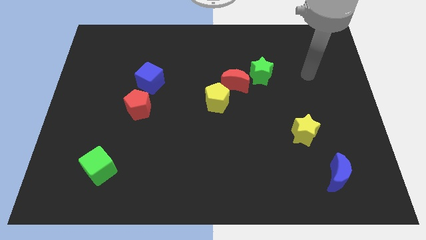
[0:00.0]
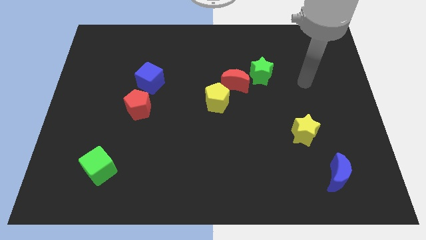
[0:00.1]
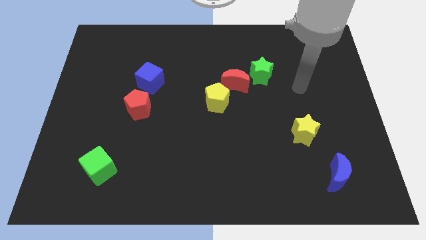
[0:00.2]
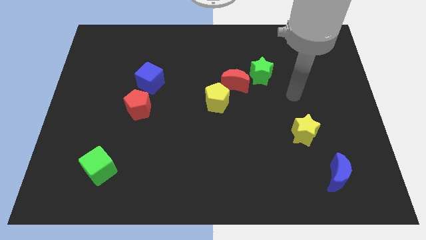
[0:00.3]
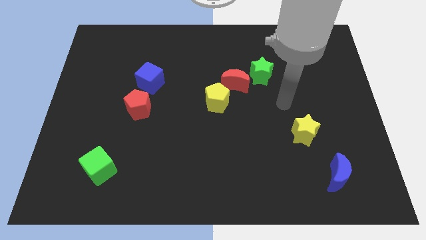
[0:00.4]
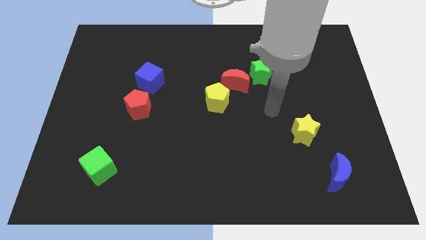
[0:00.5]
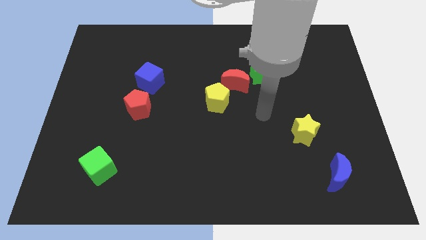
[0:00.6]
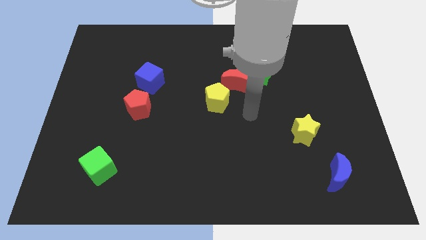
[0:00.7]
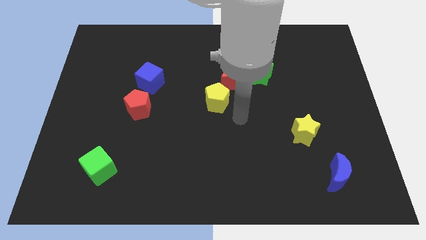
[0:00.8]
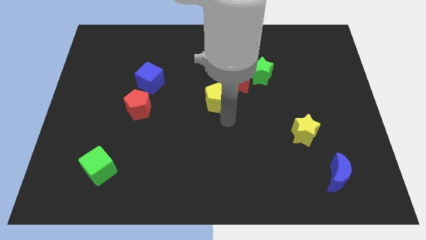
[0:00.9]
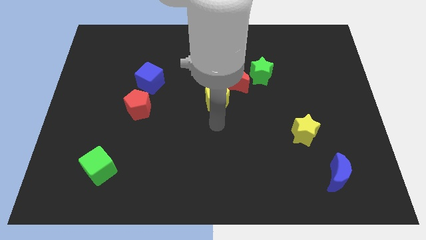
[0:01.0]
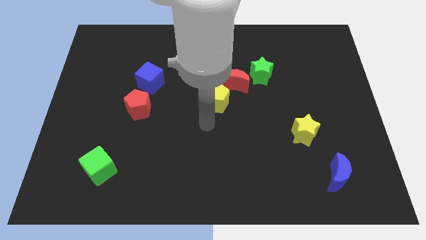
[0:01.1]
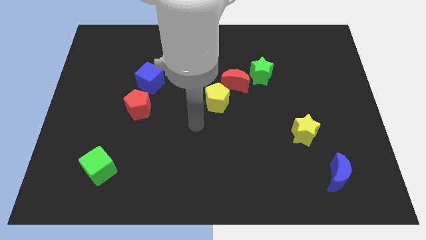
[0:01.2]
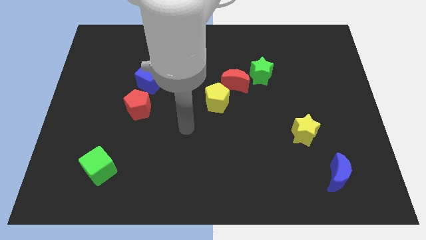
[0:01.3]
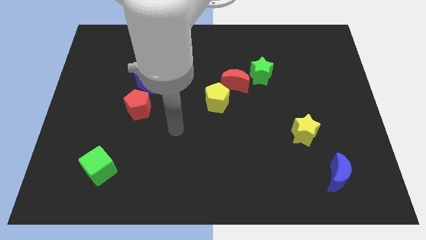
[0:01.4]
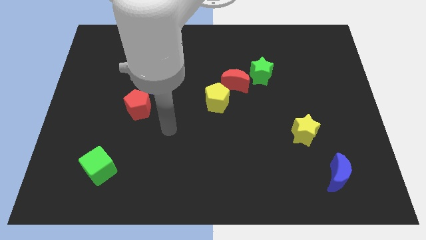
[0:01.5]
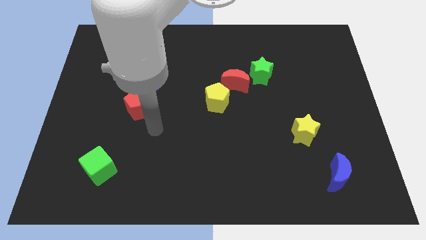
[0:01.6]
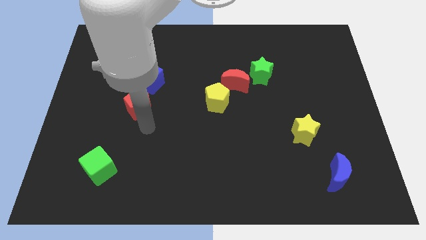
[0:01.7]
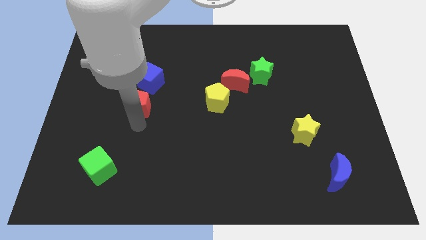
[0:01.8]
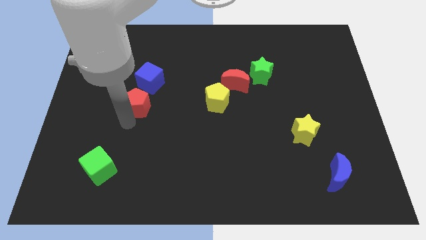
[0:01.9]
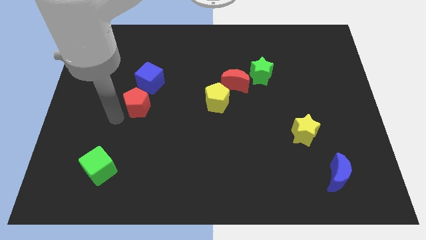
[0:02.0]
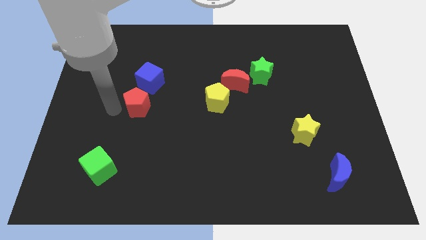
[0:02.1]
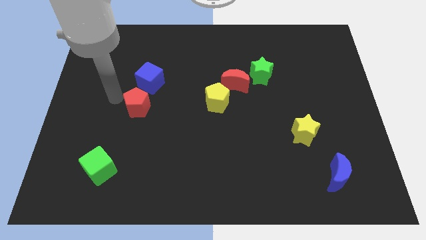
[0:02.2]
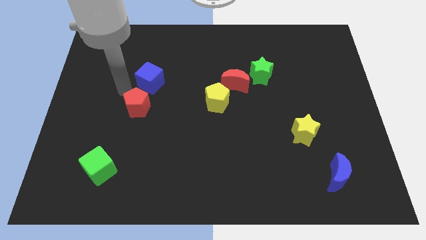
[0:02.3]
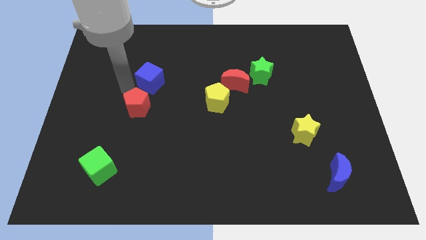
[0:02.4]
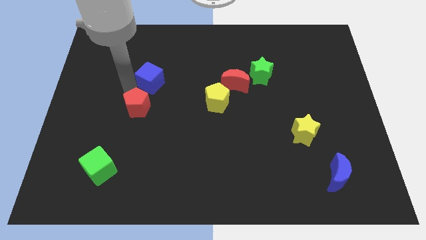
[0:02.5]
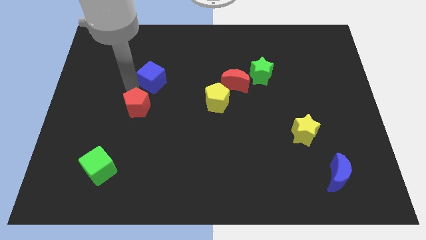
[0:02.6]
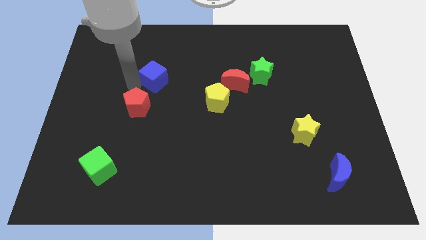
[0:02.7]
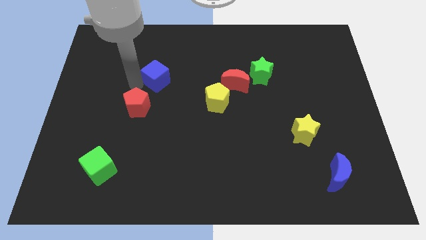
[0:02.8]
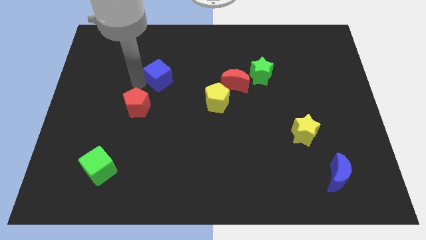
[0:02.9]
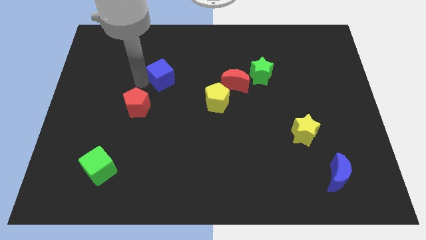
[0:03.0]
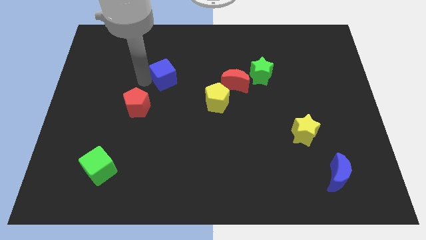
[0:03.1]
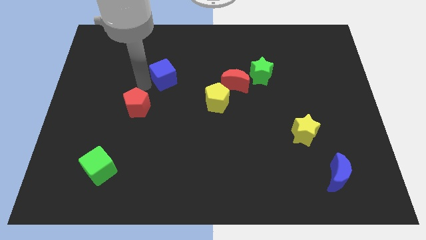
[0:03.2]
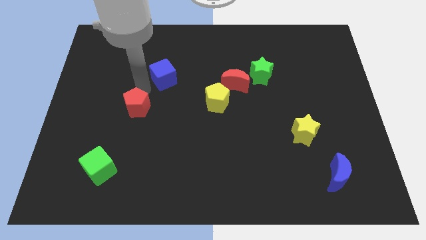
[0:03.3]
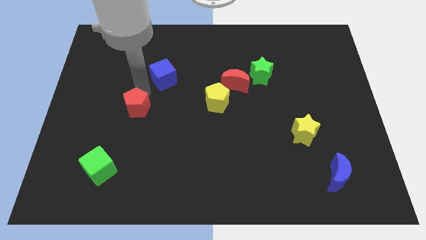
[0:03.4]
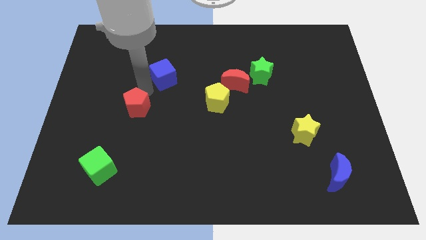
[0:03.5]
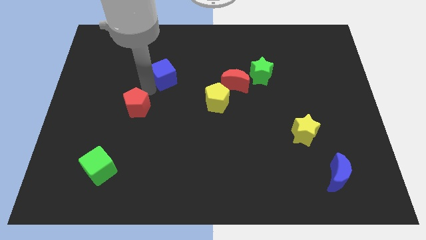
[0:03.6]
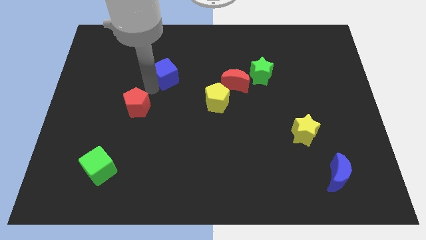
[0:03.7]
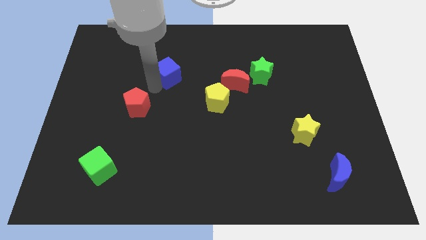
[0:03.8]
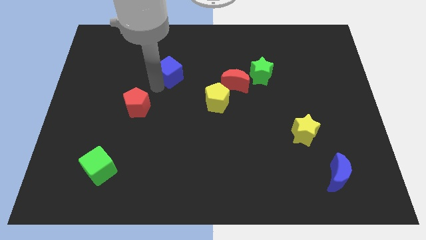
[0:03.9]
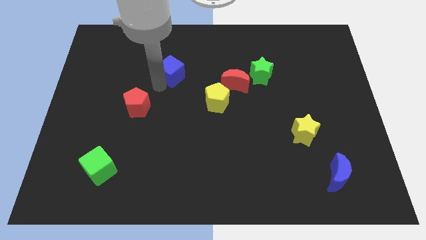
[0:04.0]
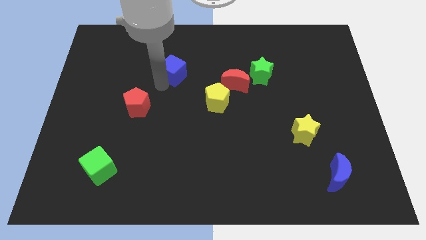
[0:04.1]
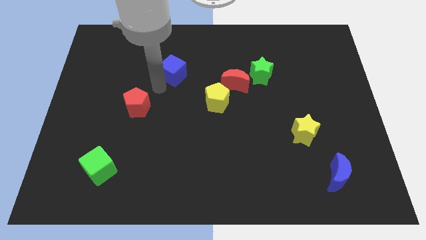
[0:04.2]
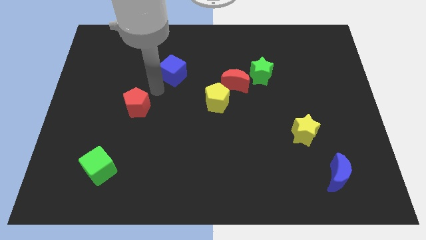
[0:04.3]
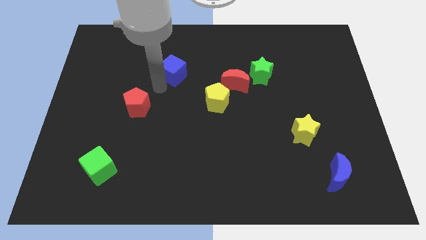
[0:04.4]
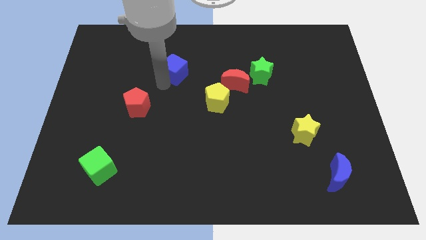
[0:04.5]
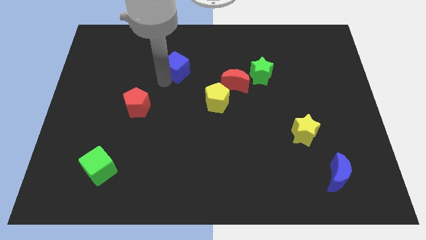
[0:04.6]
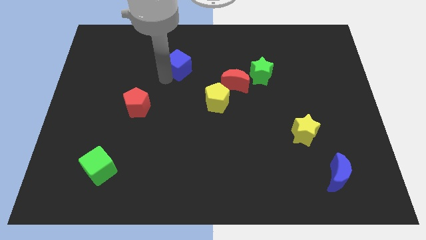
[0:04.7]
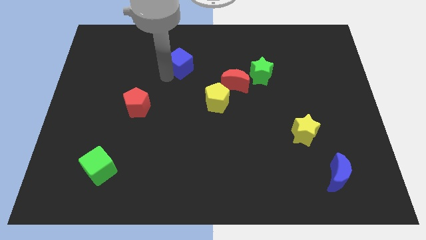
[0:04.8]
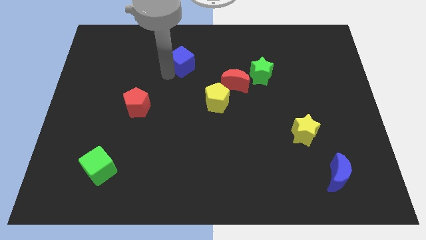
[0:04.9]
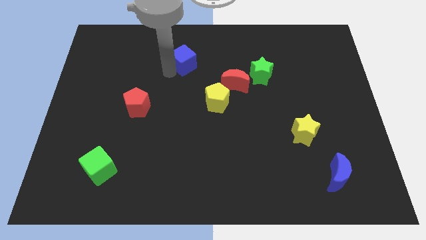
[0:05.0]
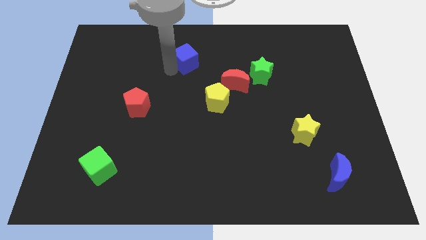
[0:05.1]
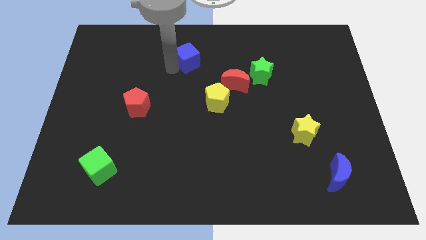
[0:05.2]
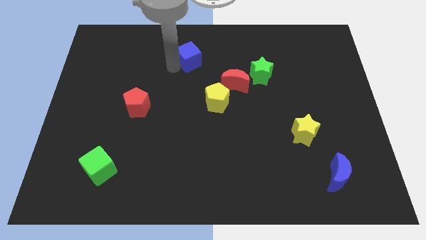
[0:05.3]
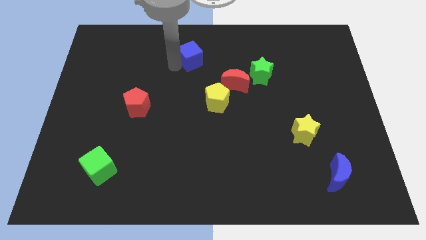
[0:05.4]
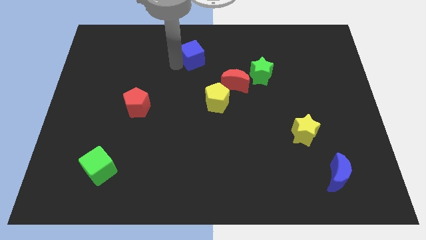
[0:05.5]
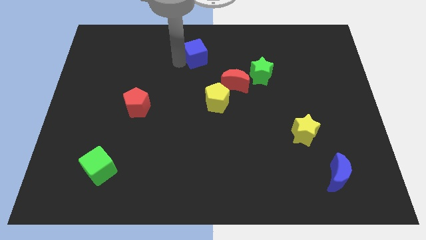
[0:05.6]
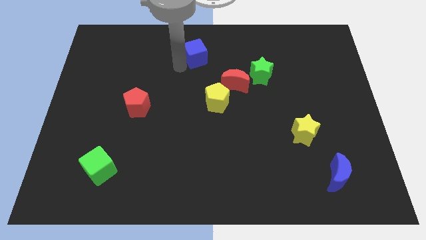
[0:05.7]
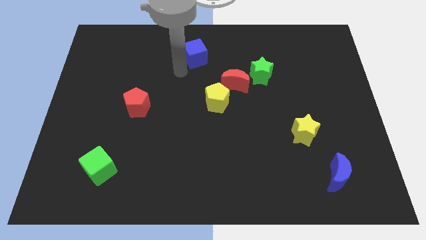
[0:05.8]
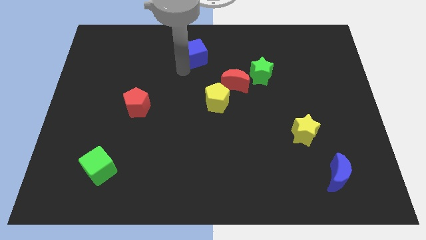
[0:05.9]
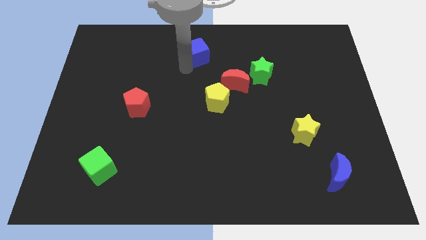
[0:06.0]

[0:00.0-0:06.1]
put the blue cube to the top
